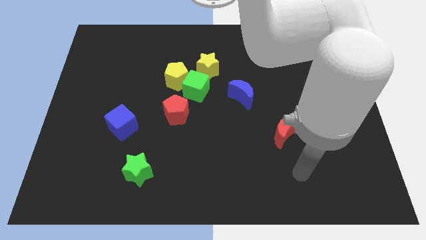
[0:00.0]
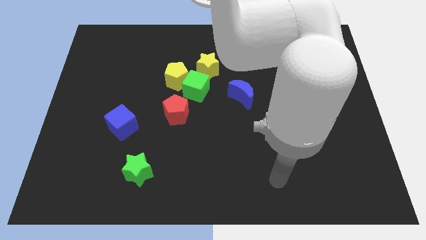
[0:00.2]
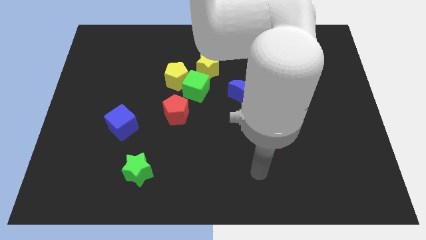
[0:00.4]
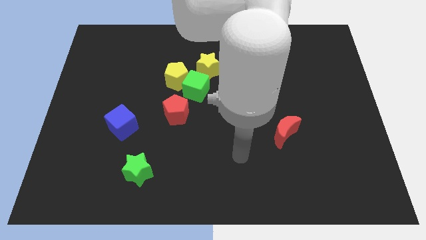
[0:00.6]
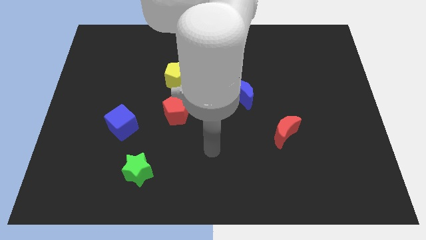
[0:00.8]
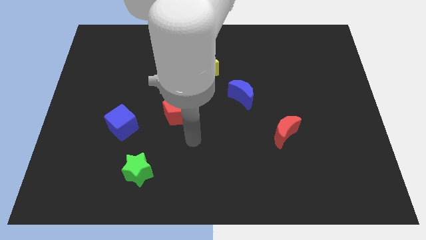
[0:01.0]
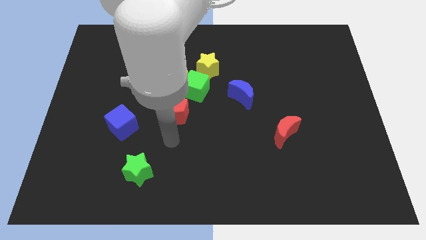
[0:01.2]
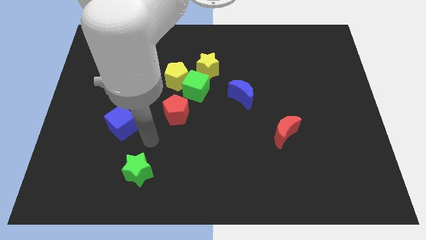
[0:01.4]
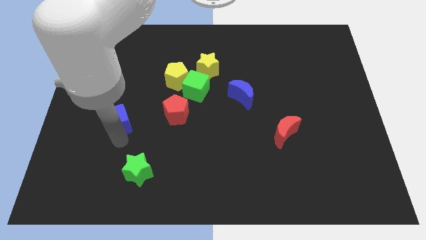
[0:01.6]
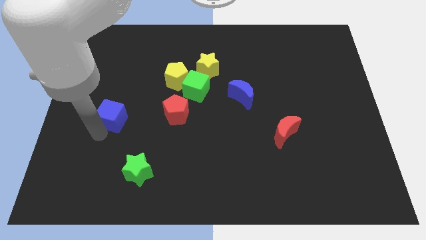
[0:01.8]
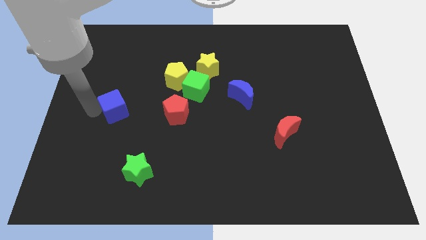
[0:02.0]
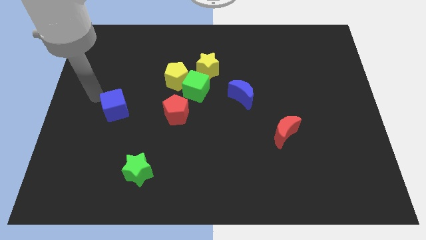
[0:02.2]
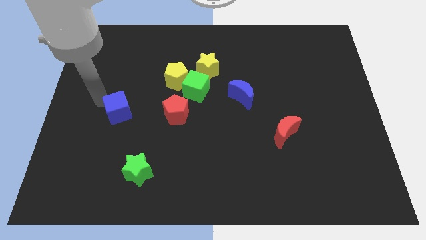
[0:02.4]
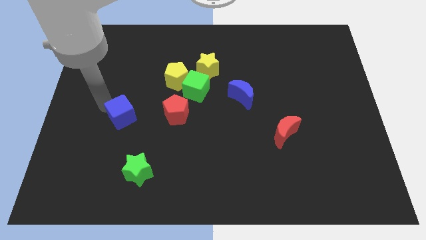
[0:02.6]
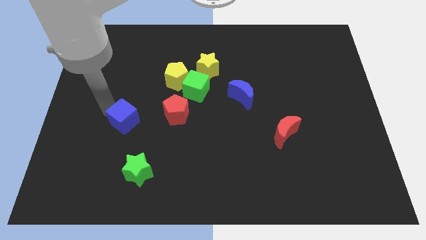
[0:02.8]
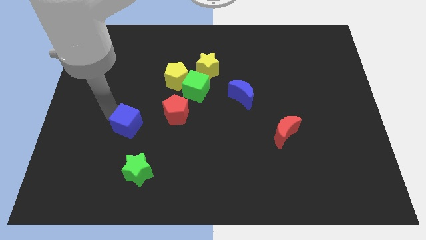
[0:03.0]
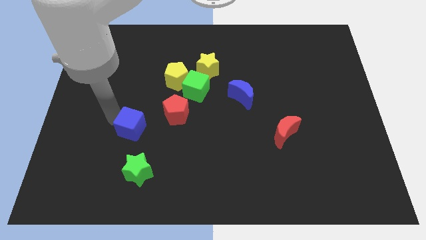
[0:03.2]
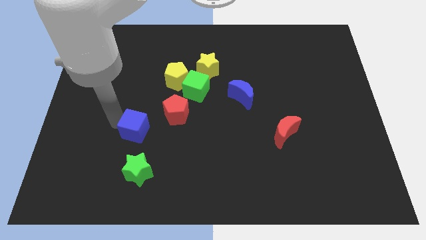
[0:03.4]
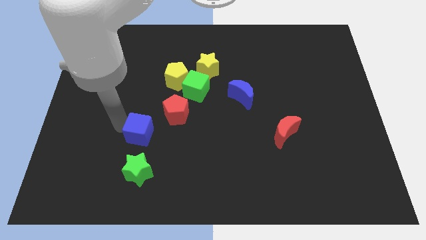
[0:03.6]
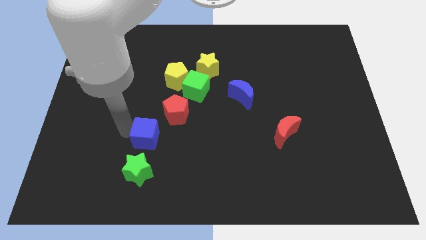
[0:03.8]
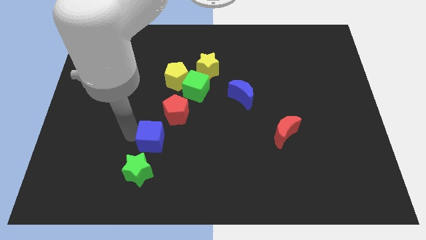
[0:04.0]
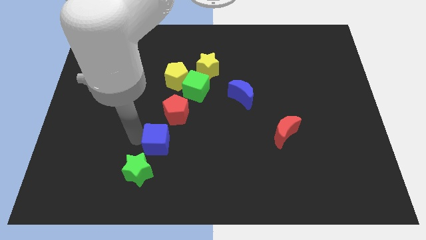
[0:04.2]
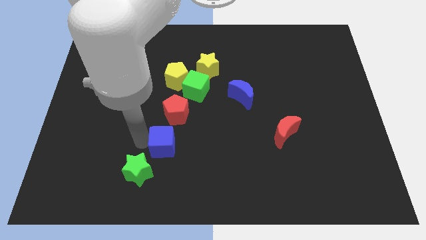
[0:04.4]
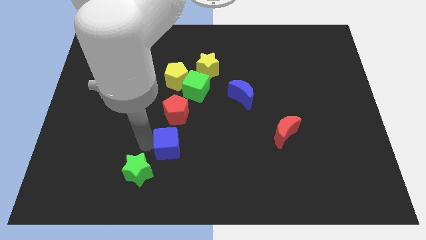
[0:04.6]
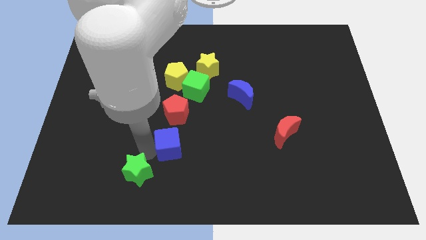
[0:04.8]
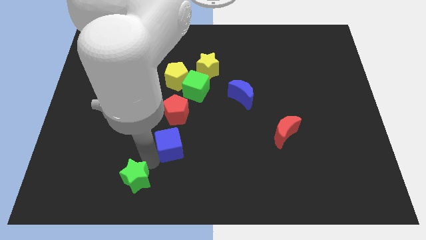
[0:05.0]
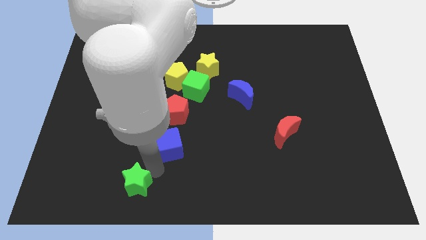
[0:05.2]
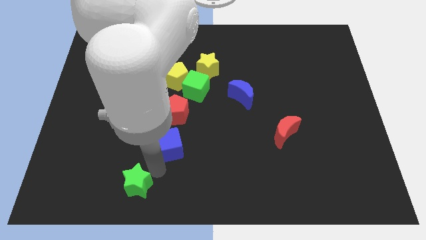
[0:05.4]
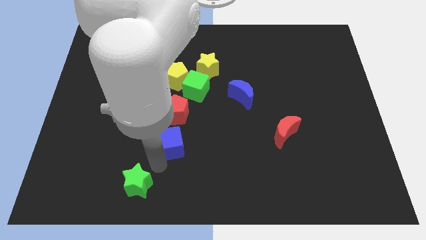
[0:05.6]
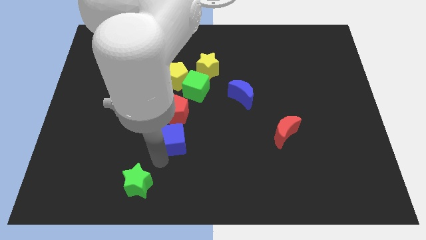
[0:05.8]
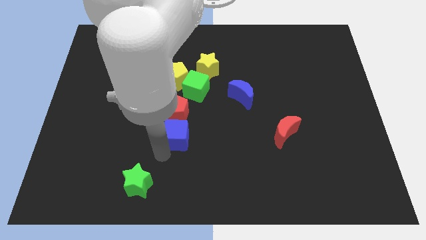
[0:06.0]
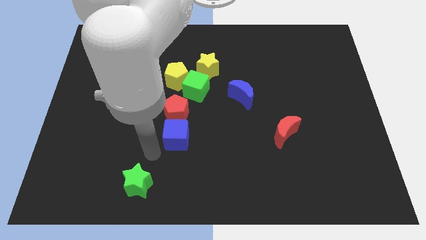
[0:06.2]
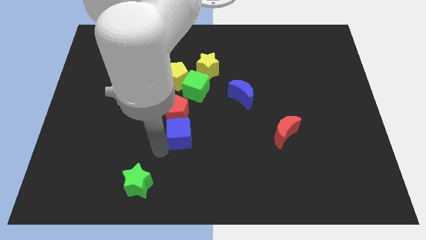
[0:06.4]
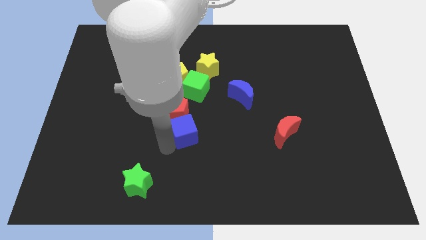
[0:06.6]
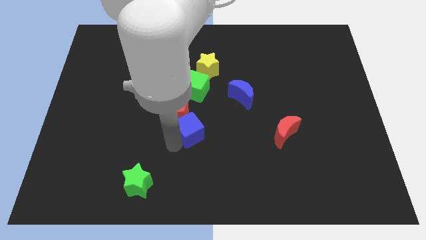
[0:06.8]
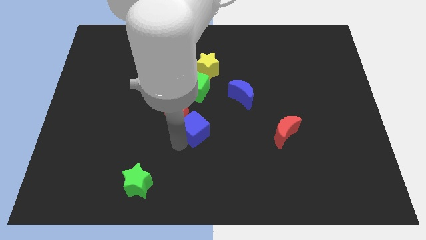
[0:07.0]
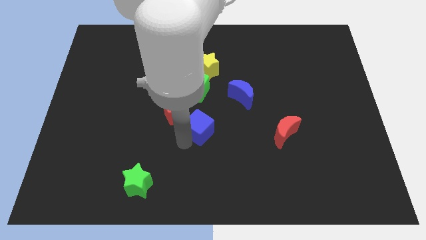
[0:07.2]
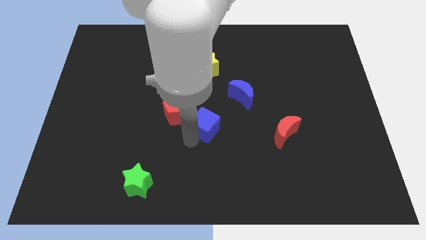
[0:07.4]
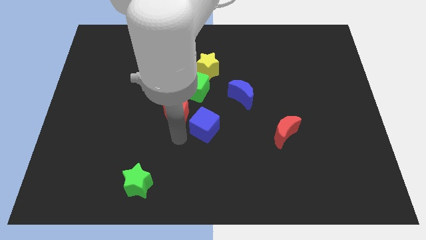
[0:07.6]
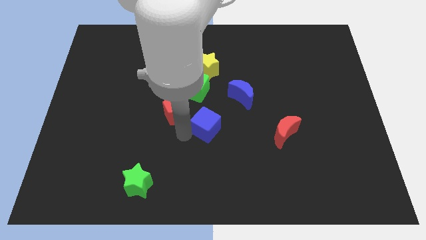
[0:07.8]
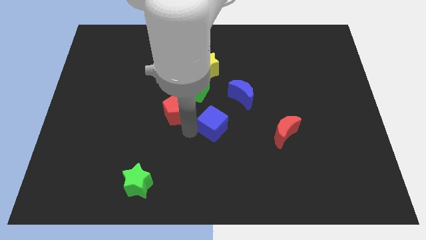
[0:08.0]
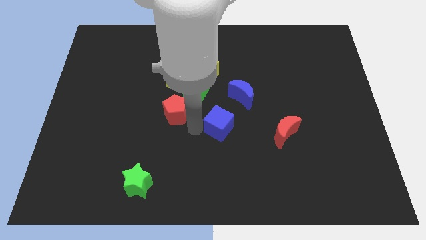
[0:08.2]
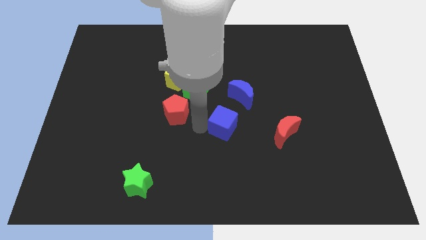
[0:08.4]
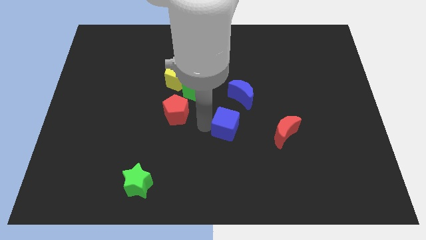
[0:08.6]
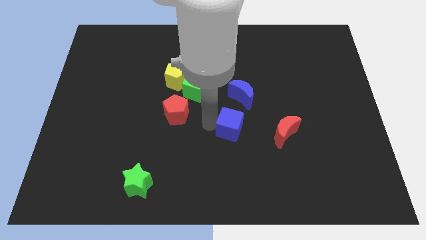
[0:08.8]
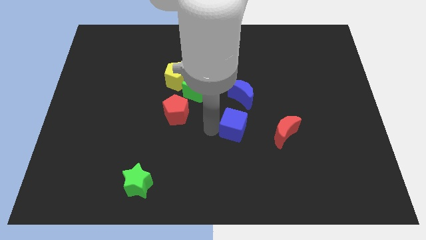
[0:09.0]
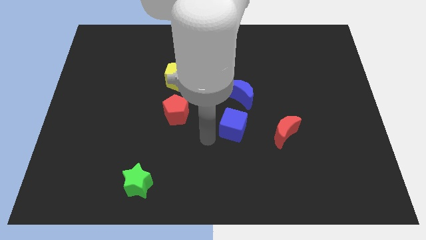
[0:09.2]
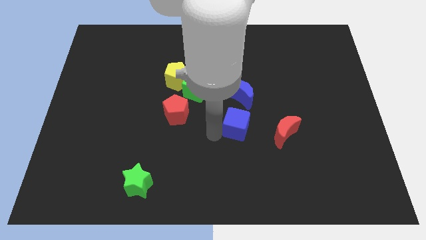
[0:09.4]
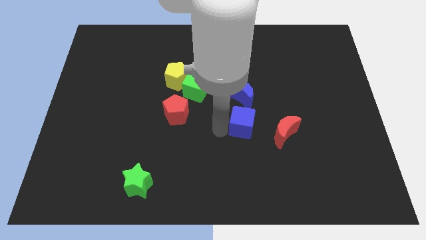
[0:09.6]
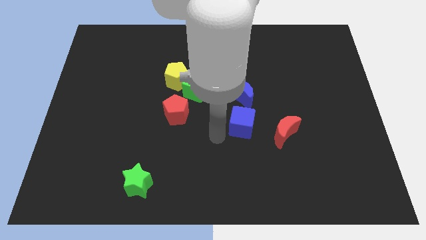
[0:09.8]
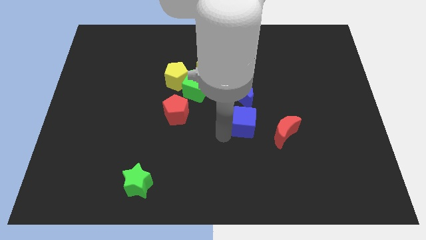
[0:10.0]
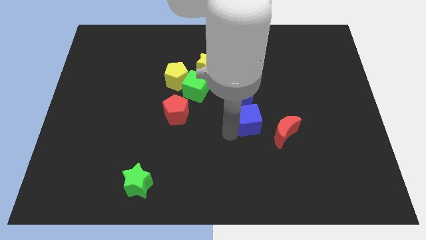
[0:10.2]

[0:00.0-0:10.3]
slide the blue cube diagonally down and to the right of the blue moon

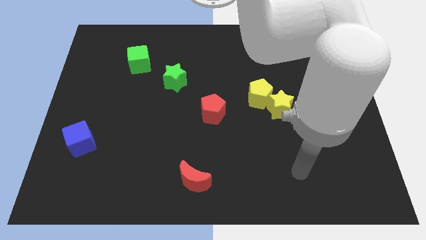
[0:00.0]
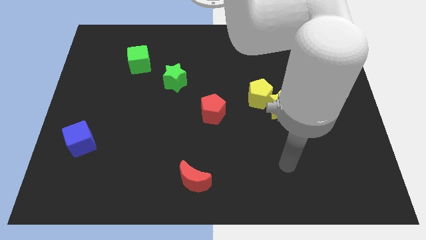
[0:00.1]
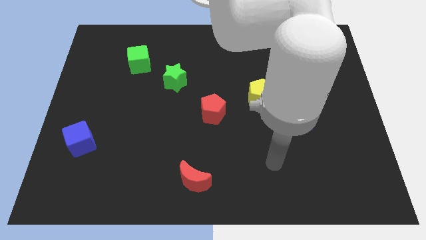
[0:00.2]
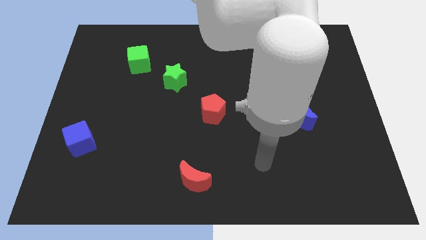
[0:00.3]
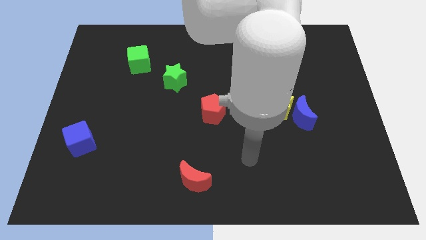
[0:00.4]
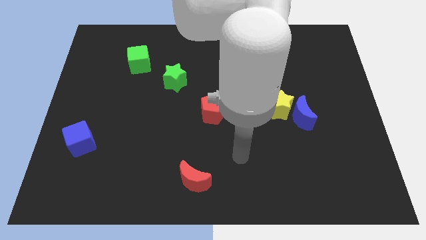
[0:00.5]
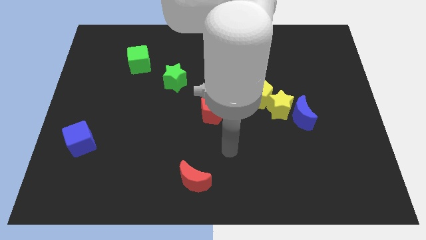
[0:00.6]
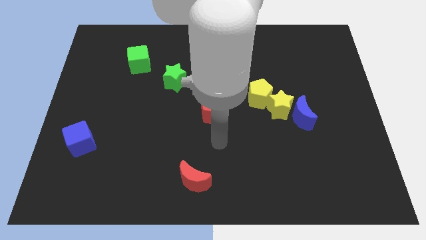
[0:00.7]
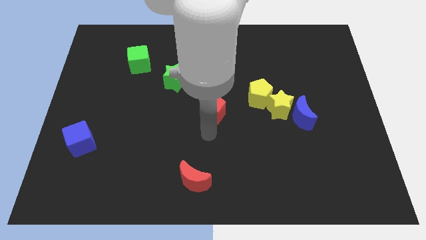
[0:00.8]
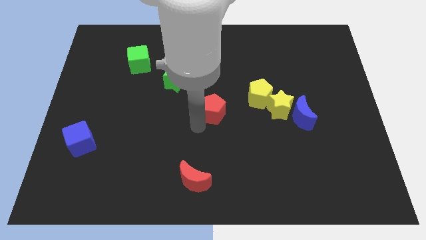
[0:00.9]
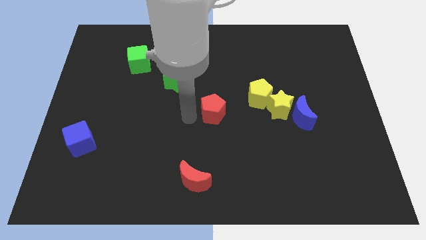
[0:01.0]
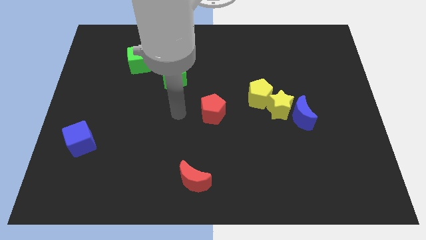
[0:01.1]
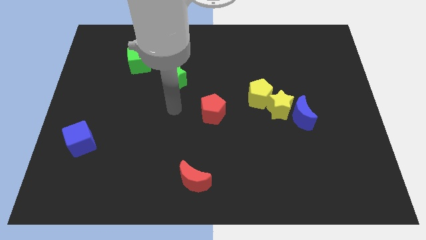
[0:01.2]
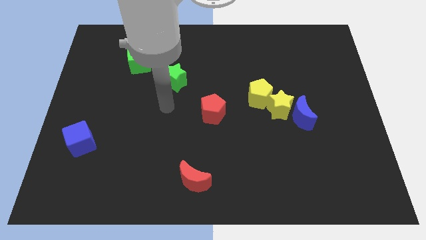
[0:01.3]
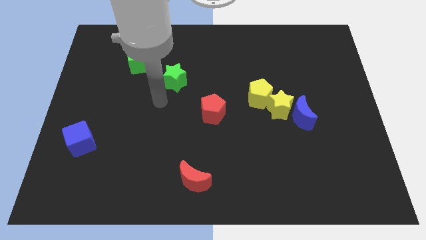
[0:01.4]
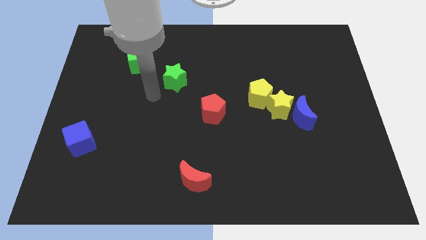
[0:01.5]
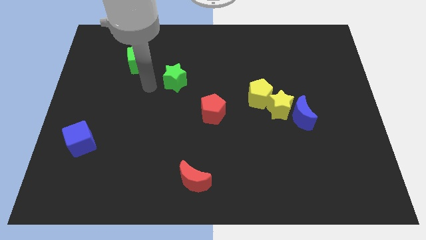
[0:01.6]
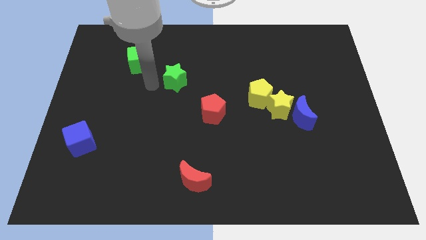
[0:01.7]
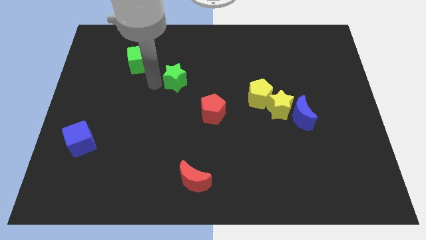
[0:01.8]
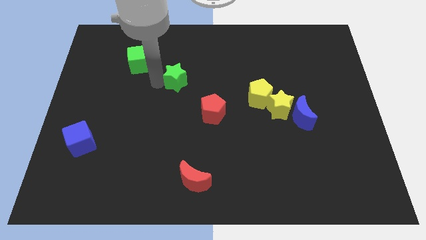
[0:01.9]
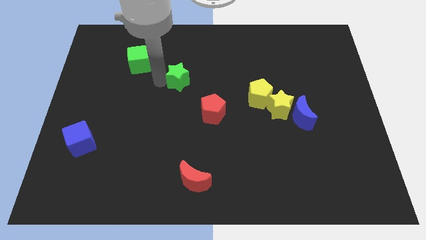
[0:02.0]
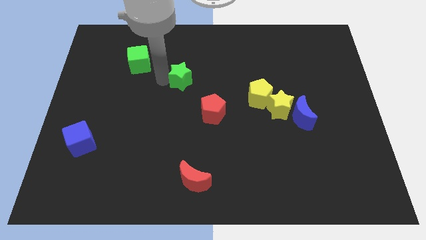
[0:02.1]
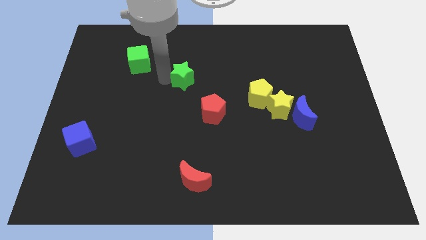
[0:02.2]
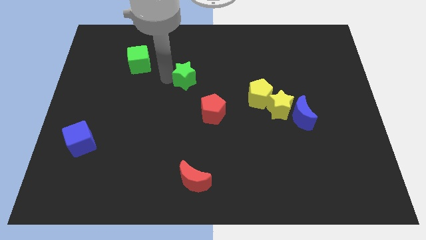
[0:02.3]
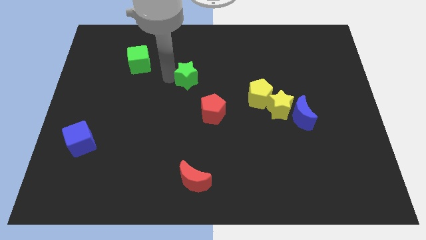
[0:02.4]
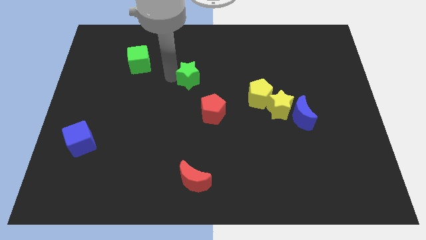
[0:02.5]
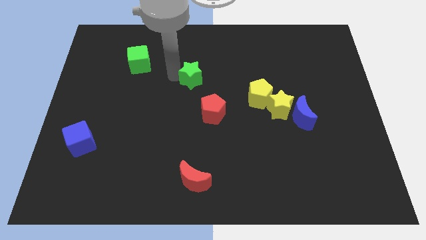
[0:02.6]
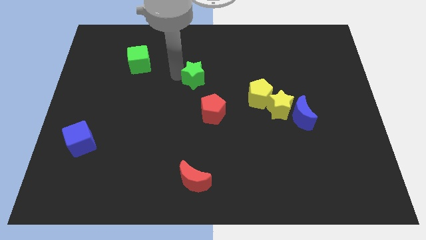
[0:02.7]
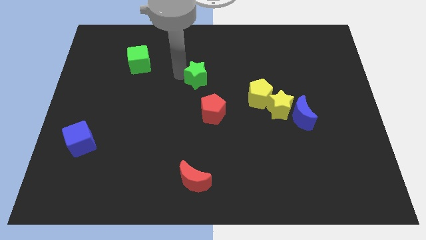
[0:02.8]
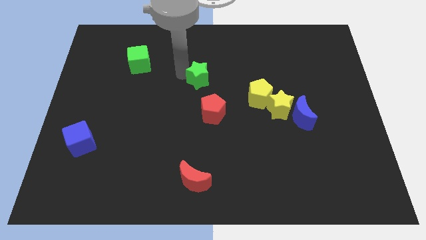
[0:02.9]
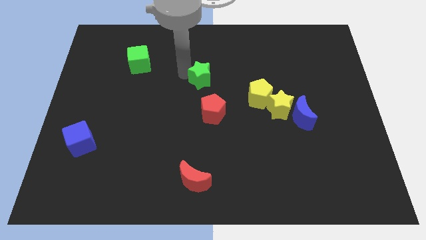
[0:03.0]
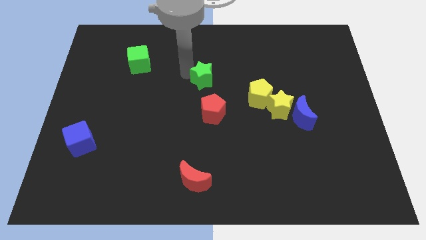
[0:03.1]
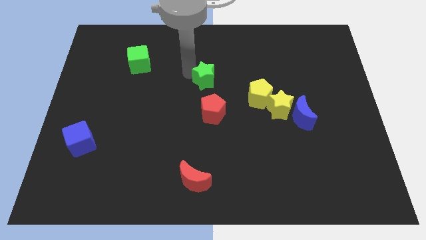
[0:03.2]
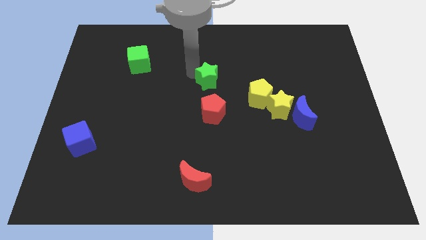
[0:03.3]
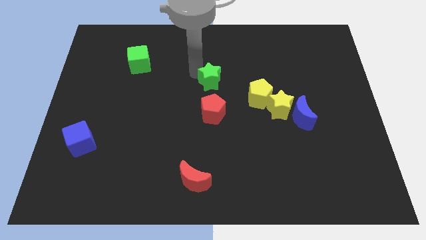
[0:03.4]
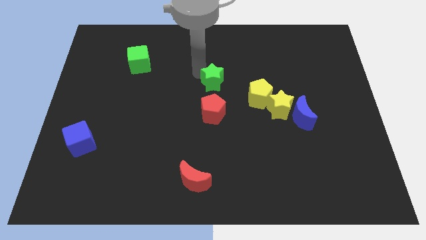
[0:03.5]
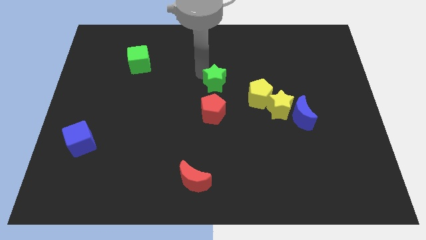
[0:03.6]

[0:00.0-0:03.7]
slide the green star diagonally up and to the left of the yellow pentagon
